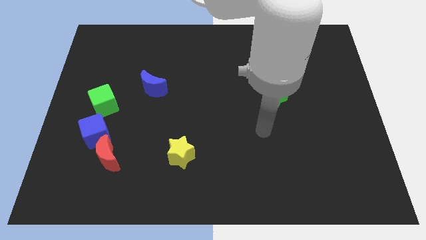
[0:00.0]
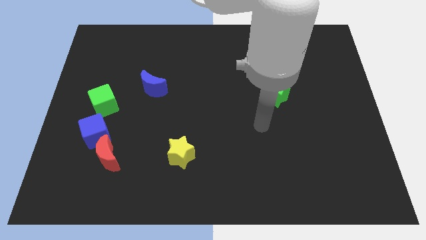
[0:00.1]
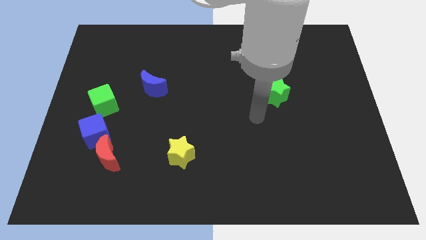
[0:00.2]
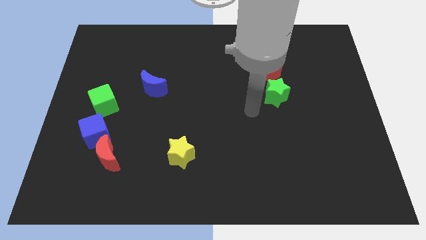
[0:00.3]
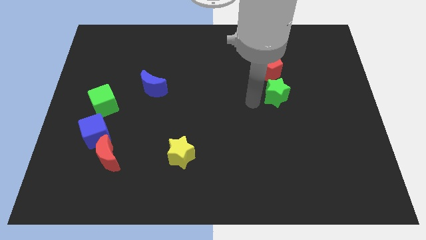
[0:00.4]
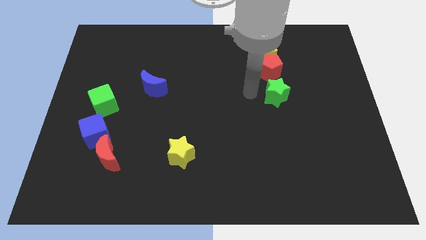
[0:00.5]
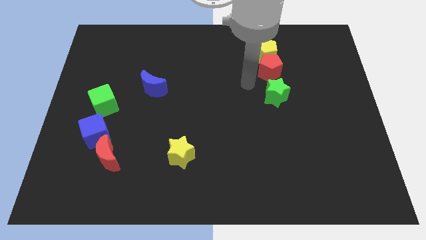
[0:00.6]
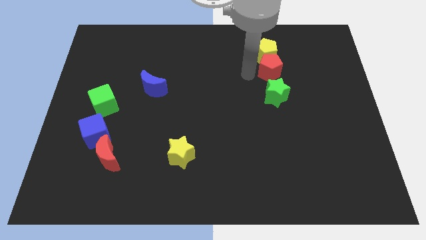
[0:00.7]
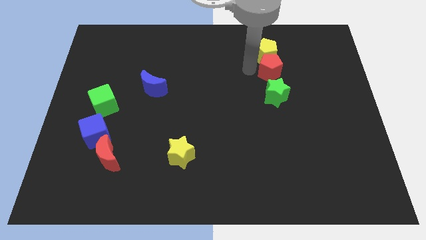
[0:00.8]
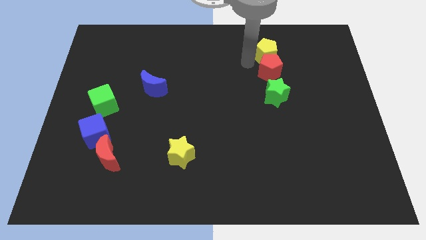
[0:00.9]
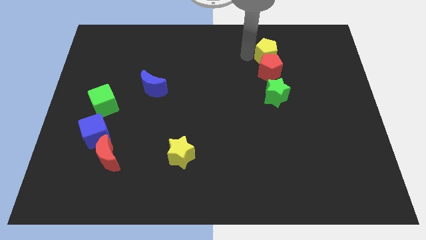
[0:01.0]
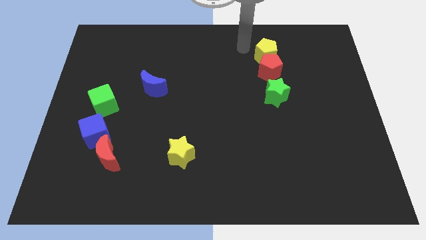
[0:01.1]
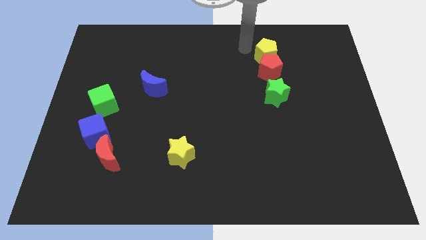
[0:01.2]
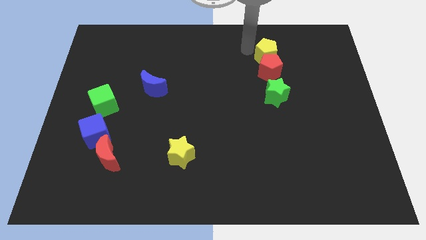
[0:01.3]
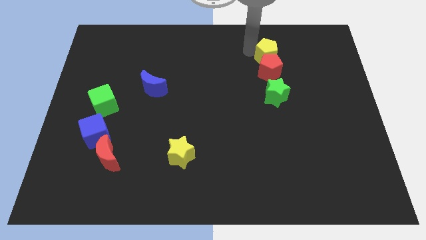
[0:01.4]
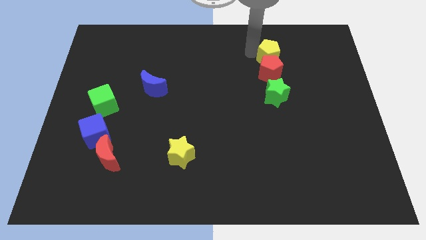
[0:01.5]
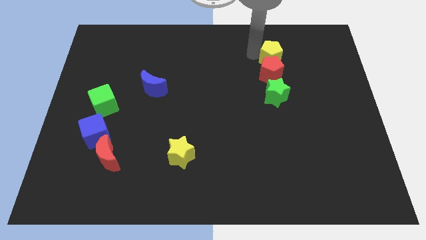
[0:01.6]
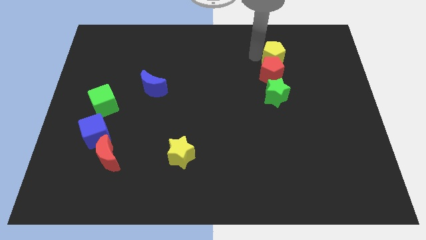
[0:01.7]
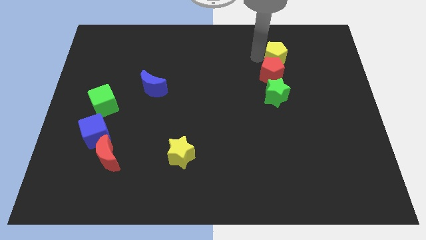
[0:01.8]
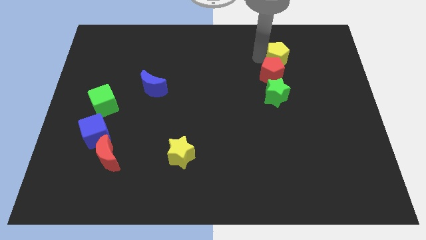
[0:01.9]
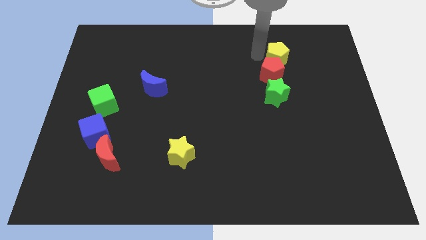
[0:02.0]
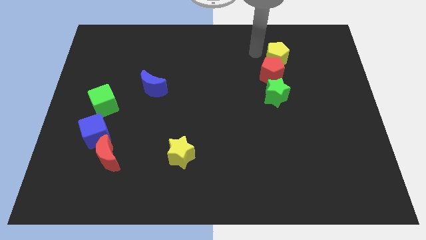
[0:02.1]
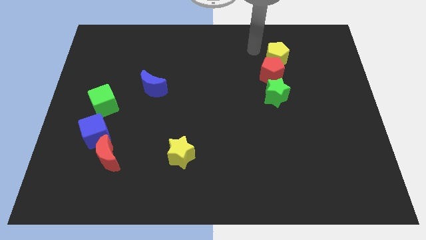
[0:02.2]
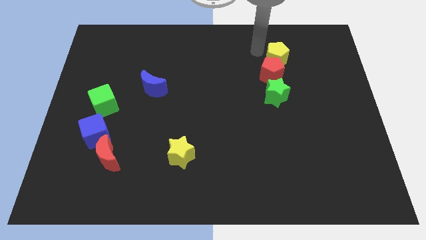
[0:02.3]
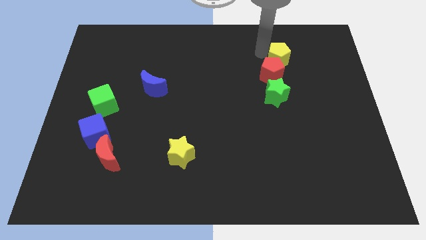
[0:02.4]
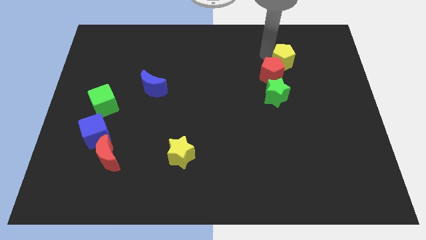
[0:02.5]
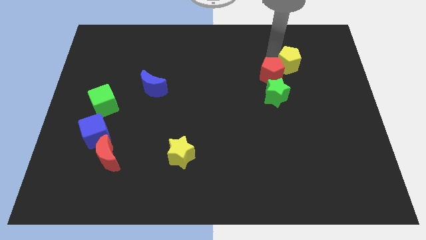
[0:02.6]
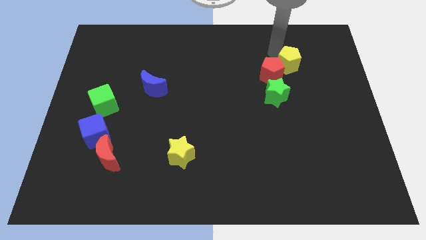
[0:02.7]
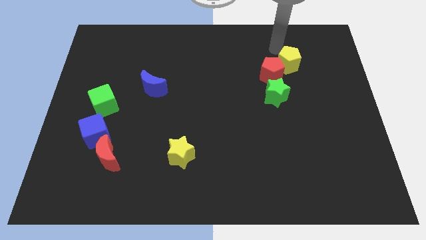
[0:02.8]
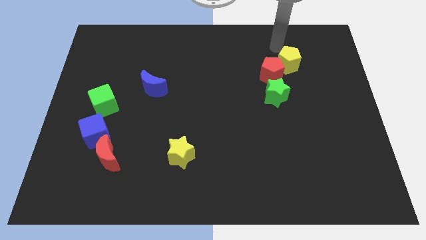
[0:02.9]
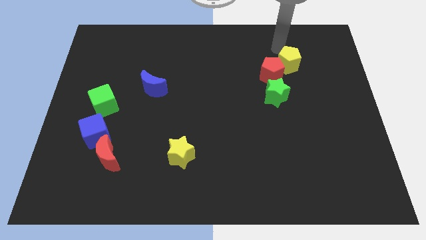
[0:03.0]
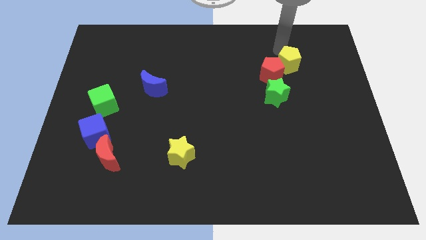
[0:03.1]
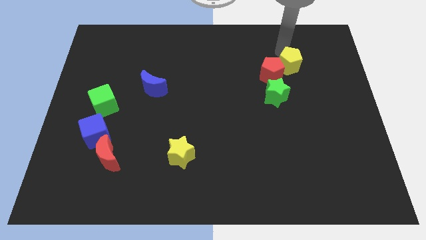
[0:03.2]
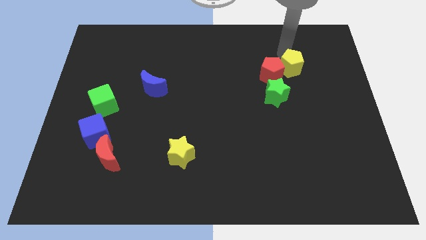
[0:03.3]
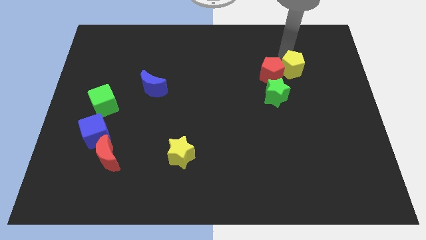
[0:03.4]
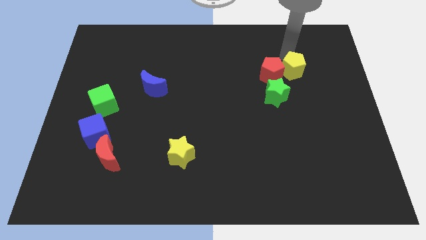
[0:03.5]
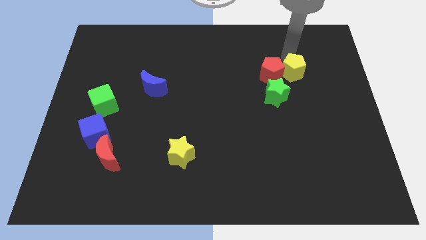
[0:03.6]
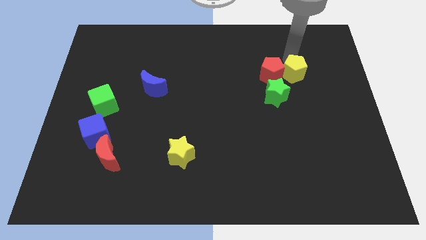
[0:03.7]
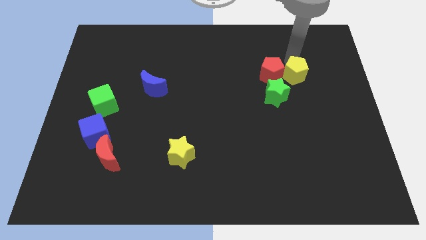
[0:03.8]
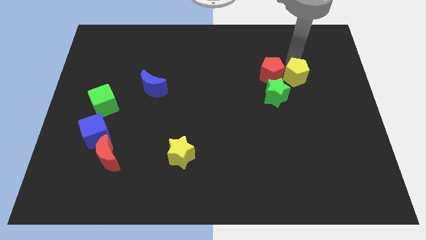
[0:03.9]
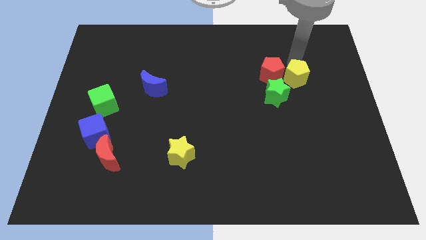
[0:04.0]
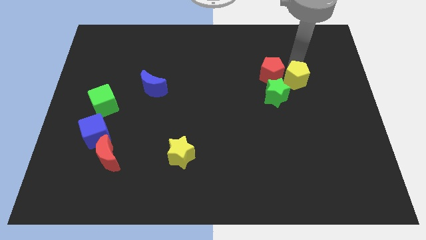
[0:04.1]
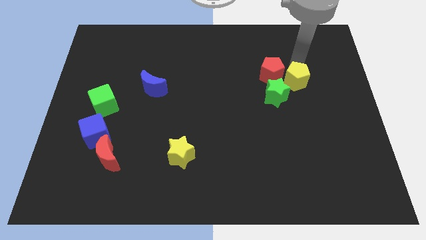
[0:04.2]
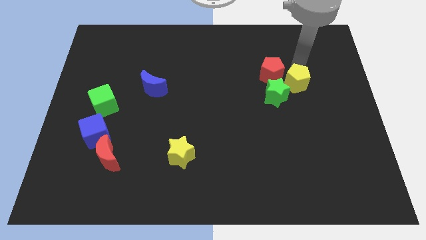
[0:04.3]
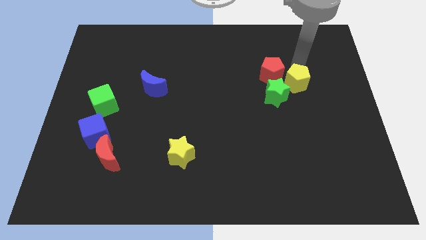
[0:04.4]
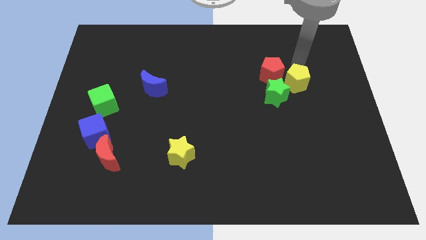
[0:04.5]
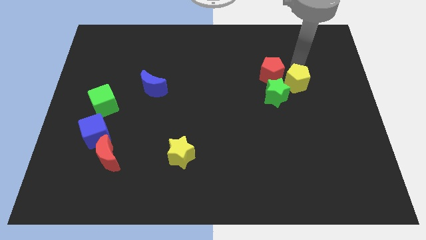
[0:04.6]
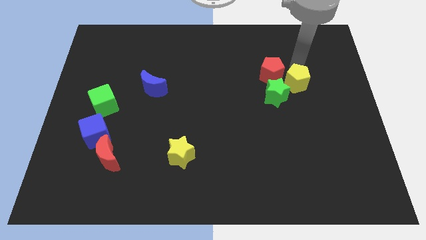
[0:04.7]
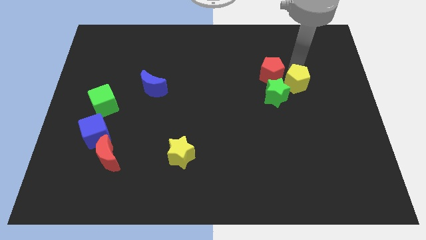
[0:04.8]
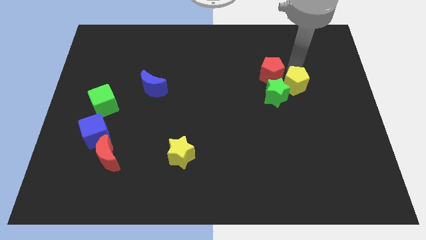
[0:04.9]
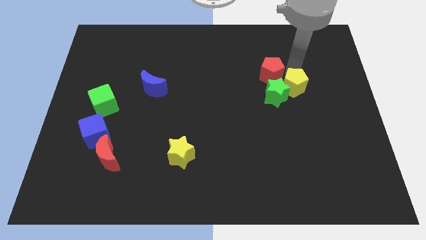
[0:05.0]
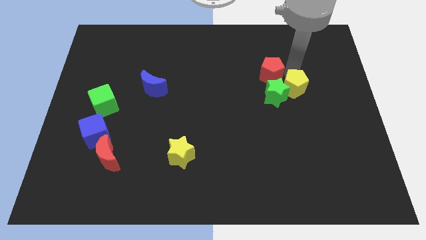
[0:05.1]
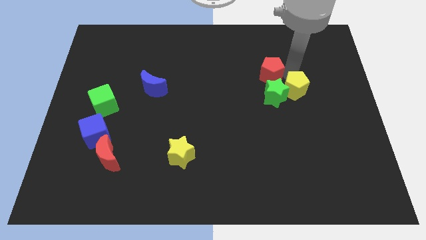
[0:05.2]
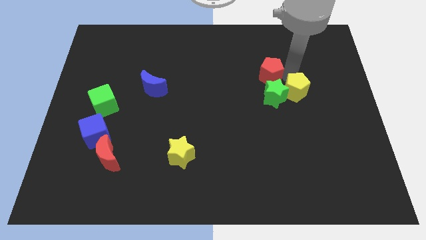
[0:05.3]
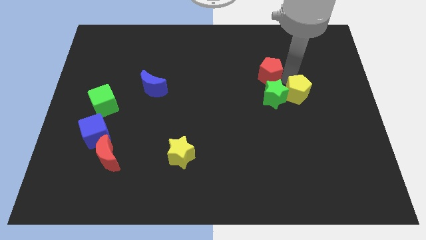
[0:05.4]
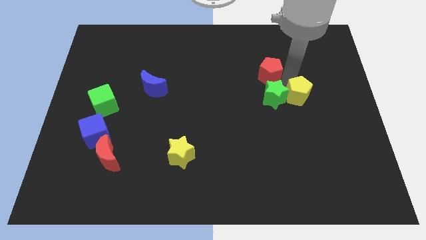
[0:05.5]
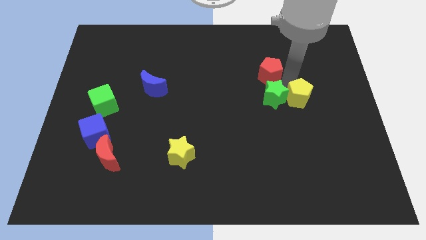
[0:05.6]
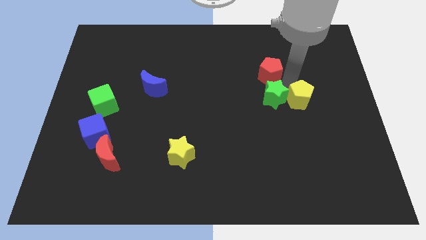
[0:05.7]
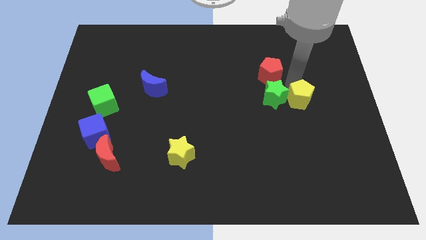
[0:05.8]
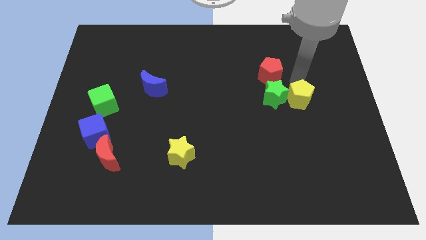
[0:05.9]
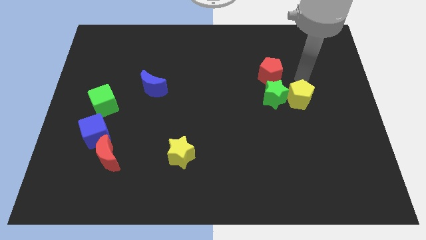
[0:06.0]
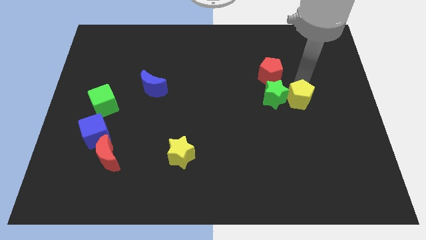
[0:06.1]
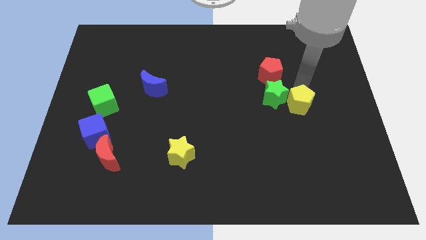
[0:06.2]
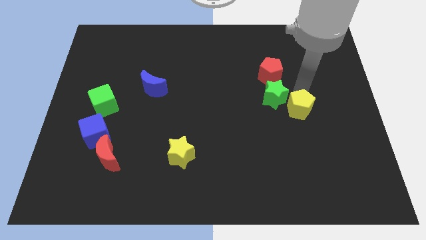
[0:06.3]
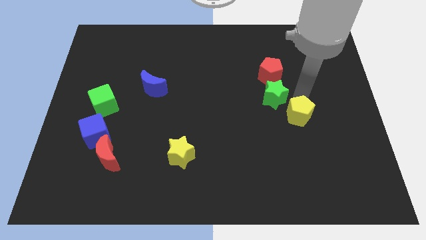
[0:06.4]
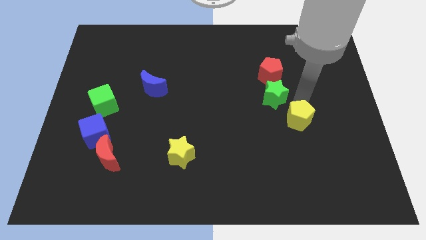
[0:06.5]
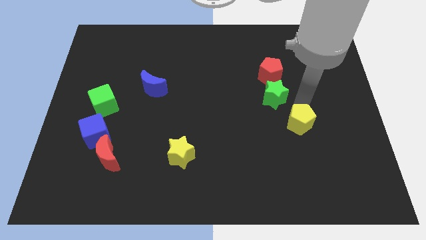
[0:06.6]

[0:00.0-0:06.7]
move the yellow pentagon downwards

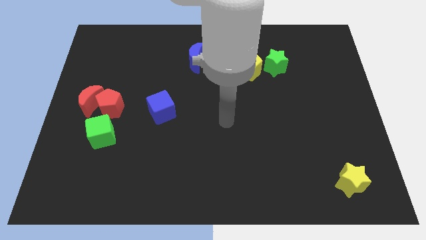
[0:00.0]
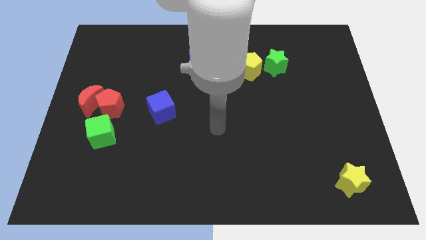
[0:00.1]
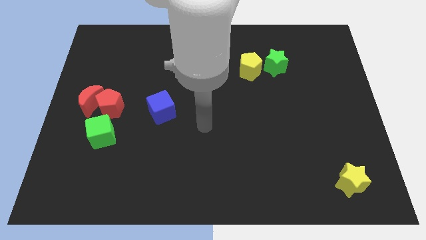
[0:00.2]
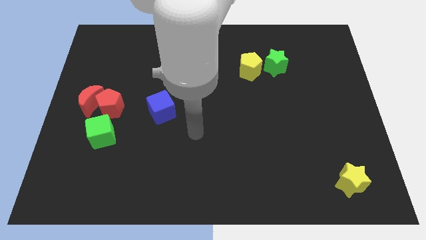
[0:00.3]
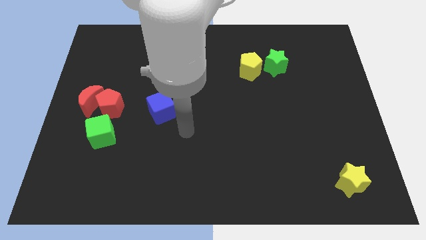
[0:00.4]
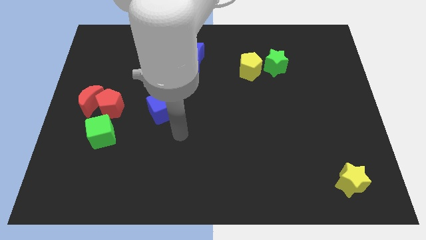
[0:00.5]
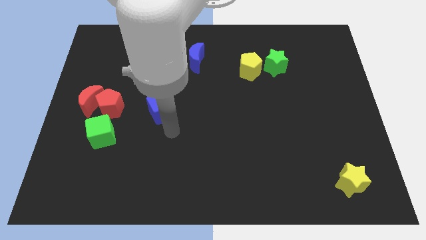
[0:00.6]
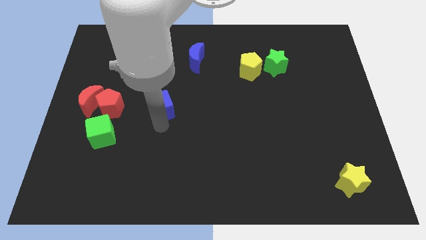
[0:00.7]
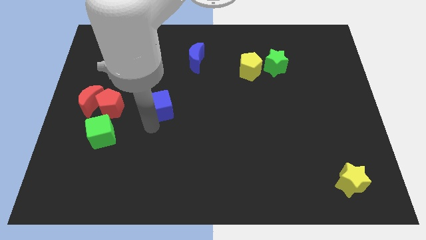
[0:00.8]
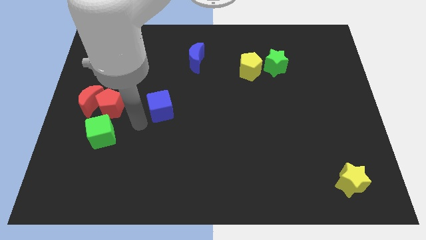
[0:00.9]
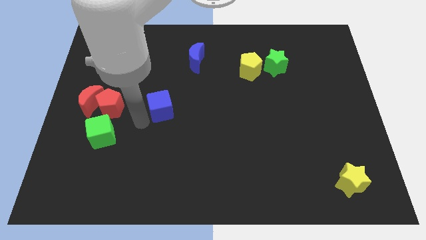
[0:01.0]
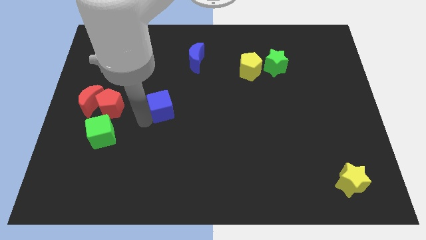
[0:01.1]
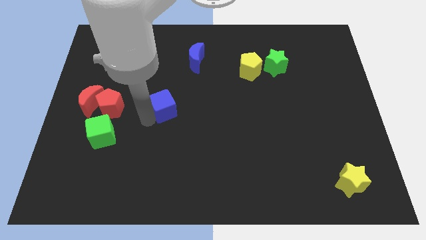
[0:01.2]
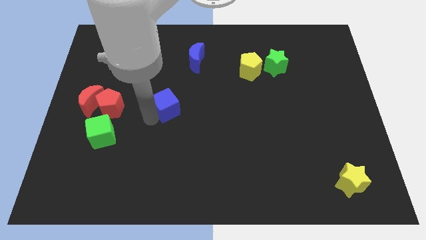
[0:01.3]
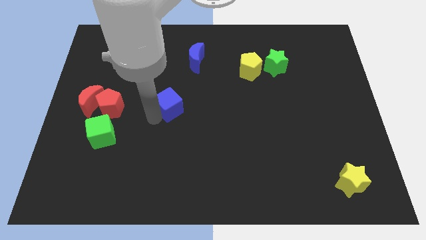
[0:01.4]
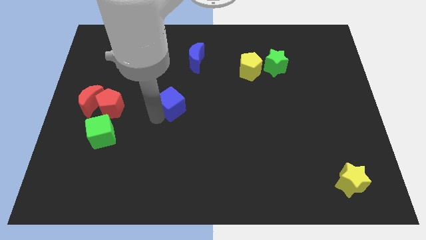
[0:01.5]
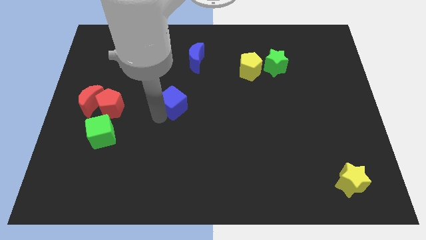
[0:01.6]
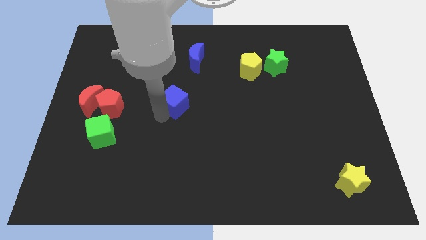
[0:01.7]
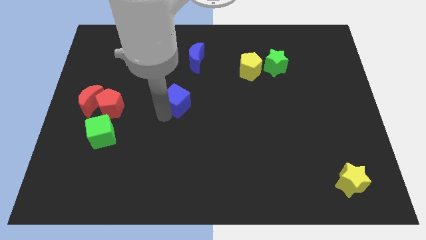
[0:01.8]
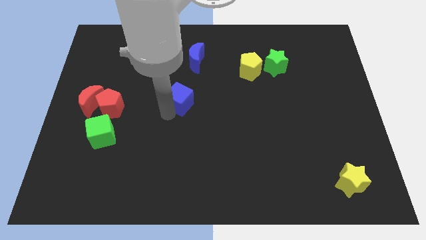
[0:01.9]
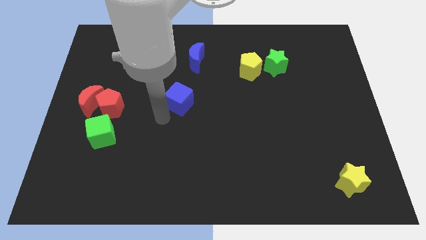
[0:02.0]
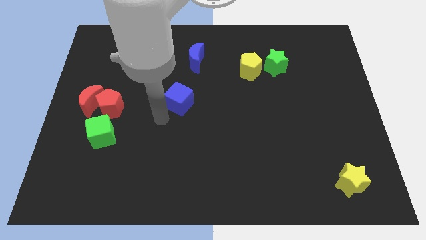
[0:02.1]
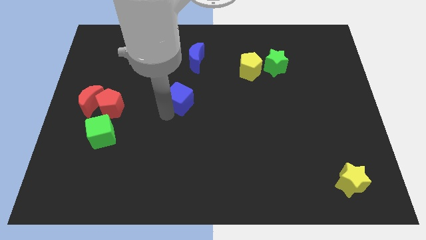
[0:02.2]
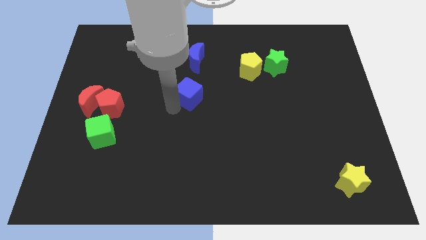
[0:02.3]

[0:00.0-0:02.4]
move the blue cube somewhat upwards and right
